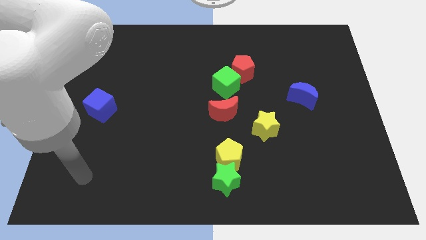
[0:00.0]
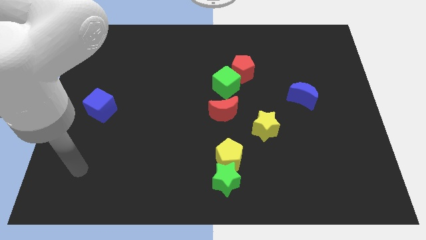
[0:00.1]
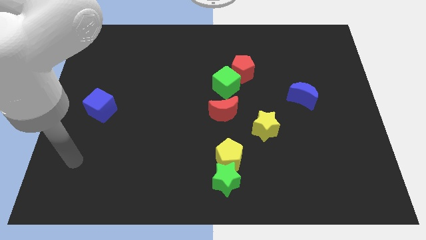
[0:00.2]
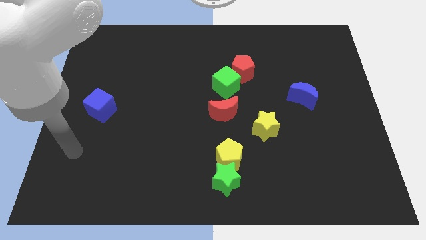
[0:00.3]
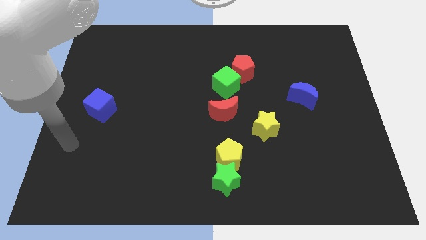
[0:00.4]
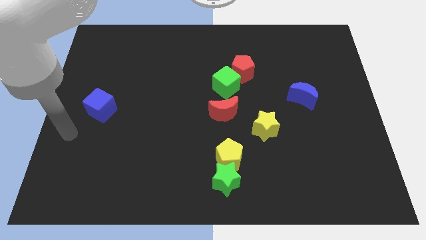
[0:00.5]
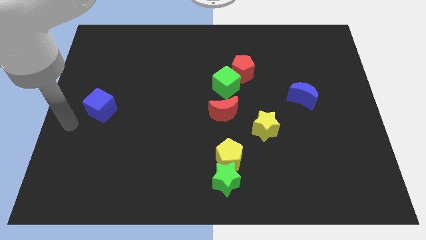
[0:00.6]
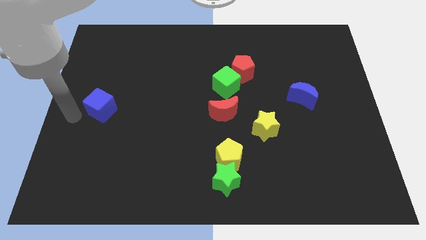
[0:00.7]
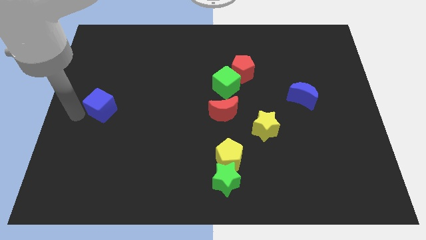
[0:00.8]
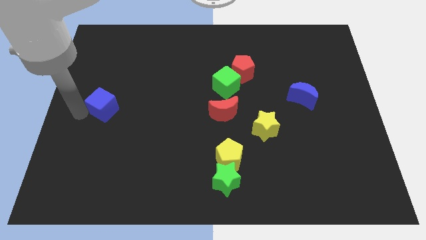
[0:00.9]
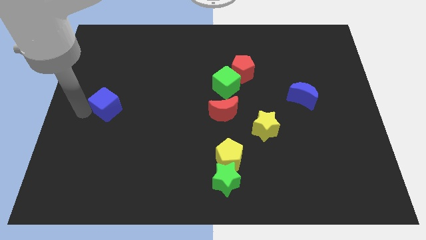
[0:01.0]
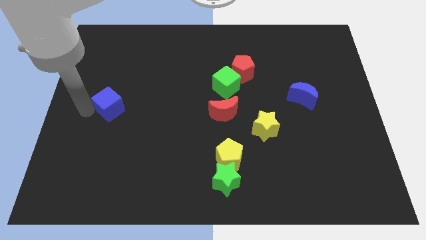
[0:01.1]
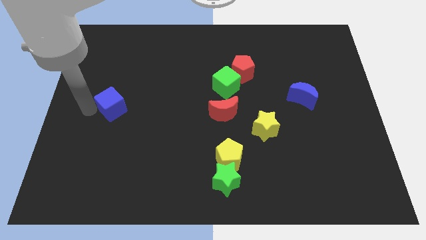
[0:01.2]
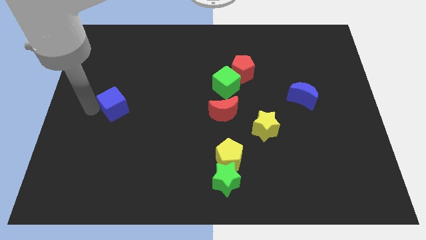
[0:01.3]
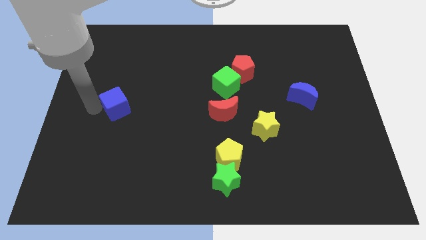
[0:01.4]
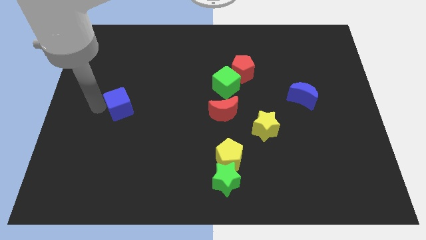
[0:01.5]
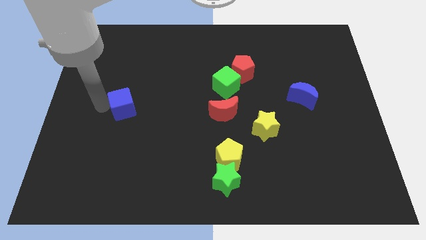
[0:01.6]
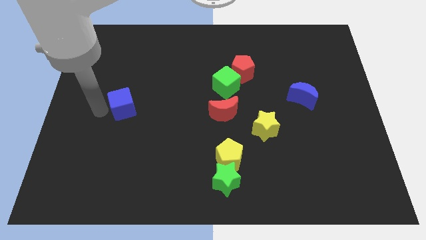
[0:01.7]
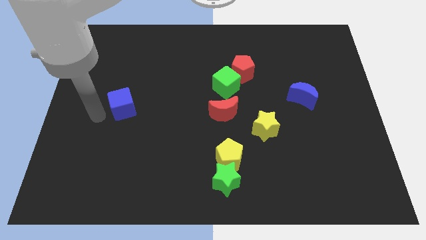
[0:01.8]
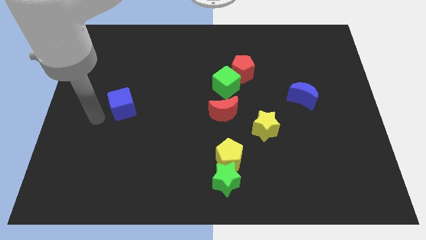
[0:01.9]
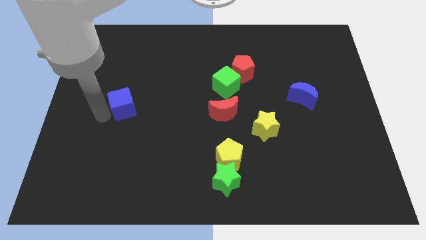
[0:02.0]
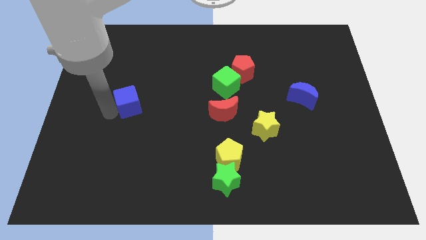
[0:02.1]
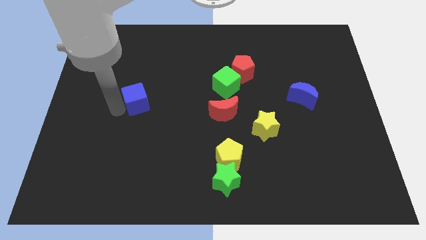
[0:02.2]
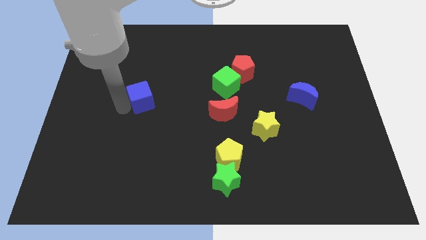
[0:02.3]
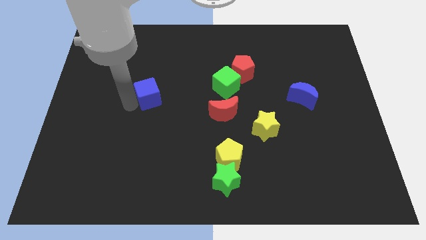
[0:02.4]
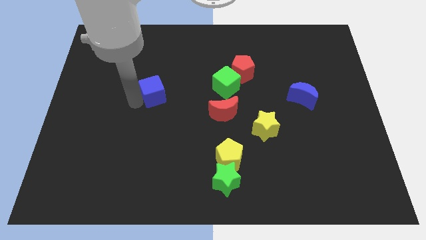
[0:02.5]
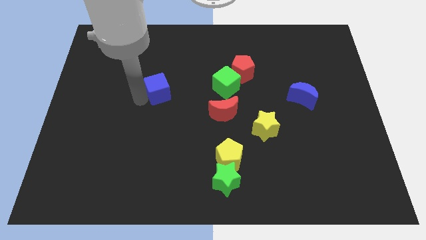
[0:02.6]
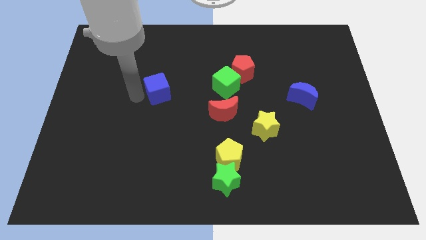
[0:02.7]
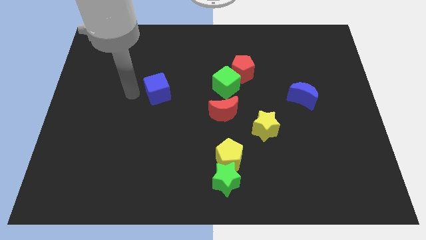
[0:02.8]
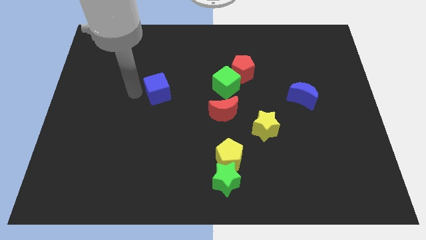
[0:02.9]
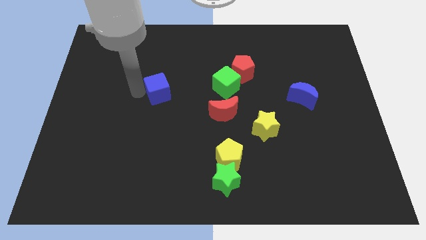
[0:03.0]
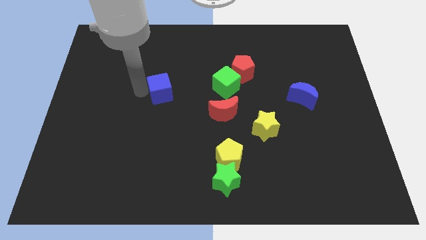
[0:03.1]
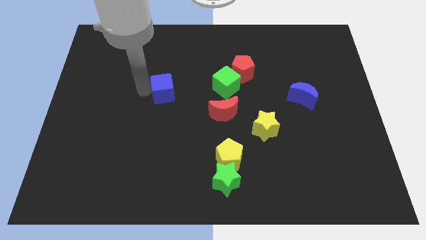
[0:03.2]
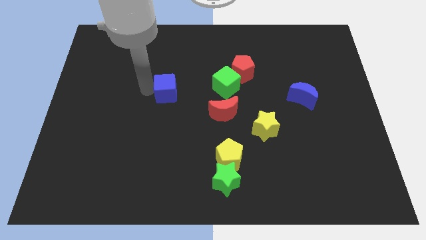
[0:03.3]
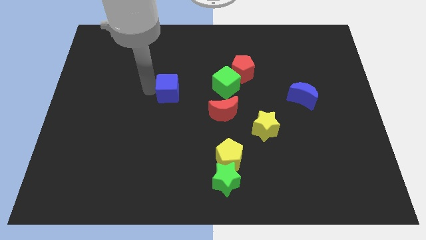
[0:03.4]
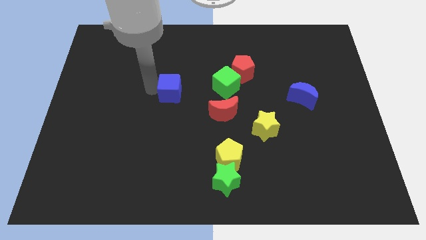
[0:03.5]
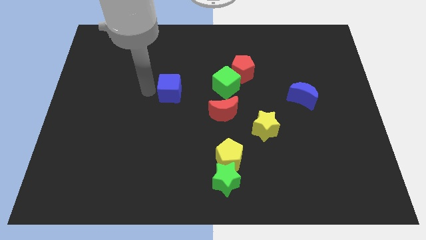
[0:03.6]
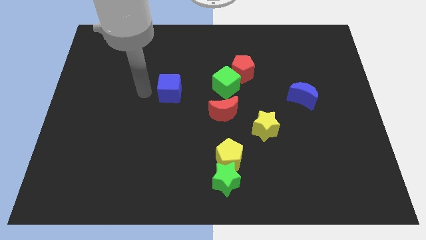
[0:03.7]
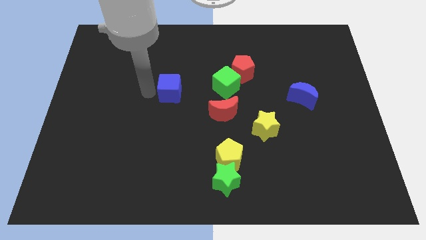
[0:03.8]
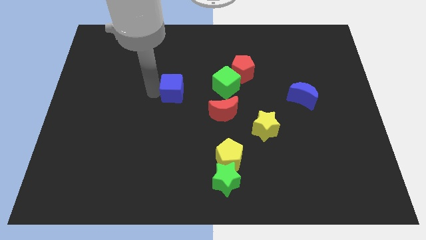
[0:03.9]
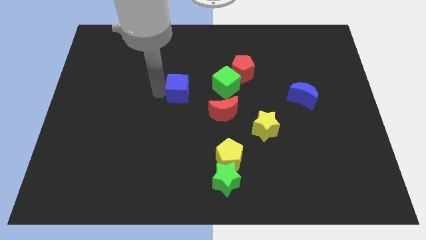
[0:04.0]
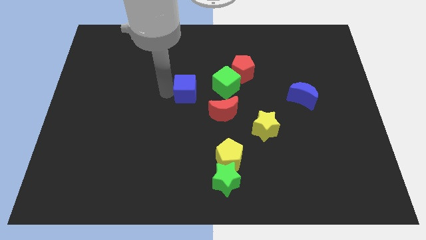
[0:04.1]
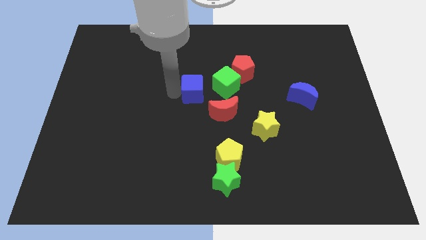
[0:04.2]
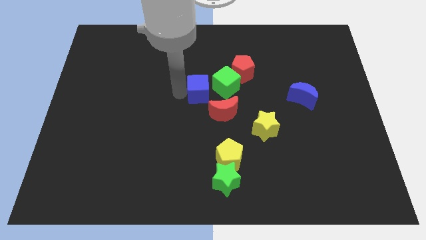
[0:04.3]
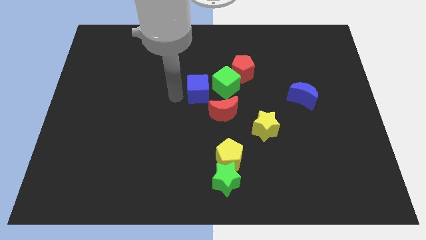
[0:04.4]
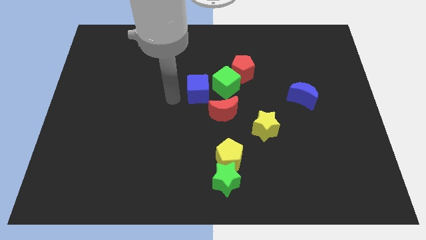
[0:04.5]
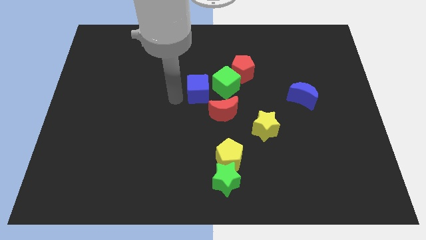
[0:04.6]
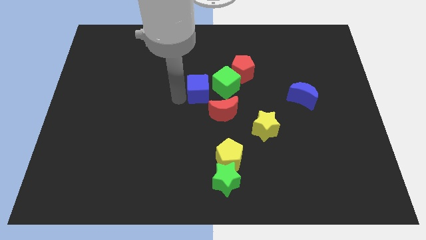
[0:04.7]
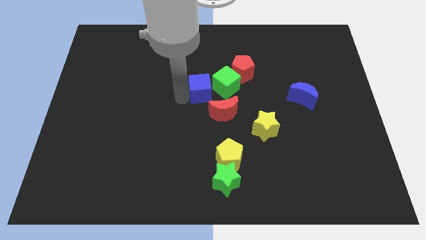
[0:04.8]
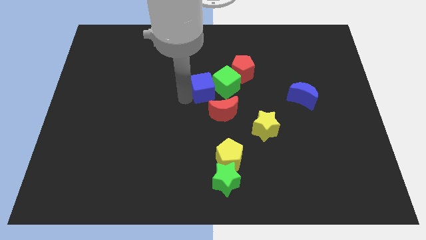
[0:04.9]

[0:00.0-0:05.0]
push the blue cube to the green cube

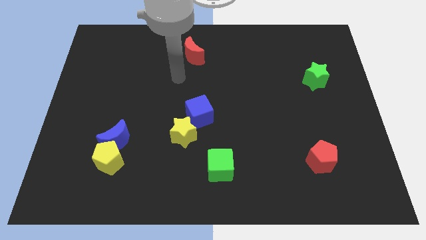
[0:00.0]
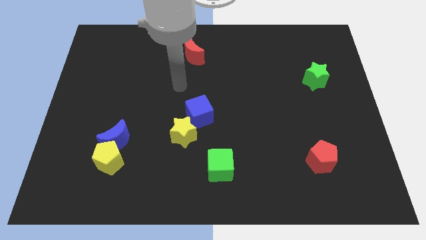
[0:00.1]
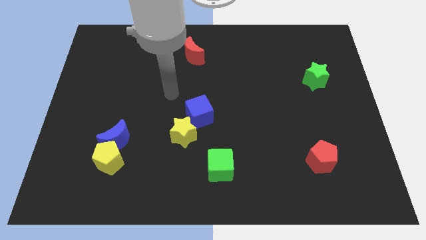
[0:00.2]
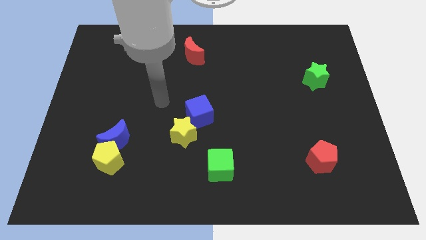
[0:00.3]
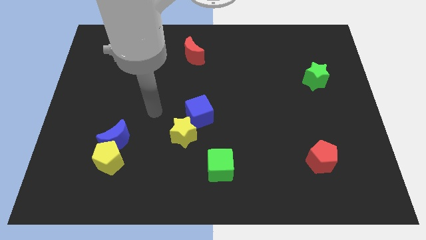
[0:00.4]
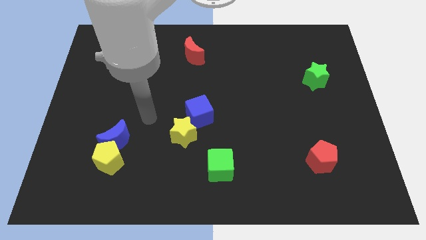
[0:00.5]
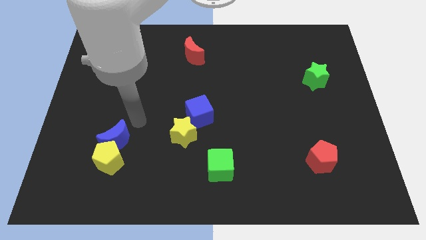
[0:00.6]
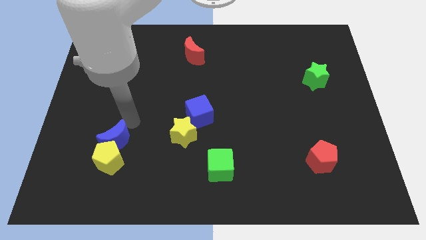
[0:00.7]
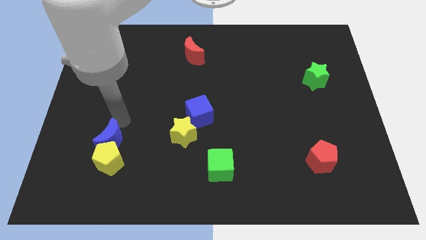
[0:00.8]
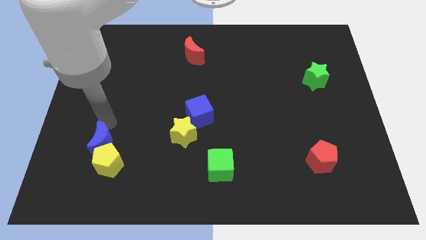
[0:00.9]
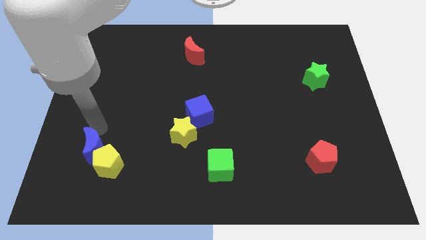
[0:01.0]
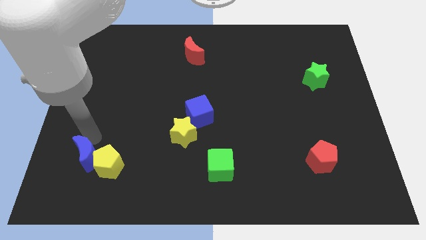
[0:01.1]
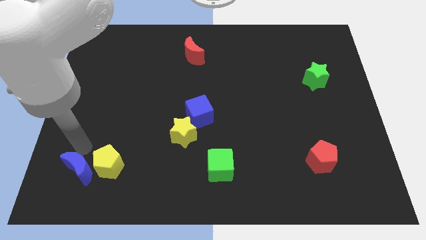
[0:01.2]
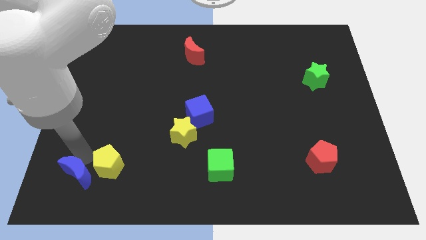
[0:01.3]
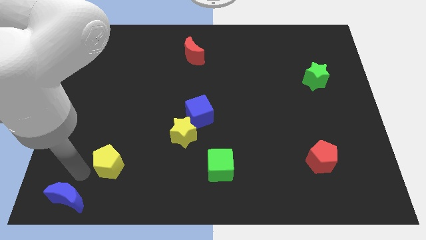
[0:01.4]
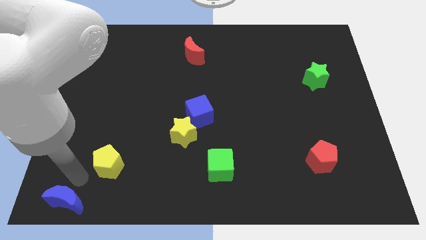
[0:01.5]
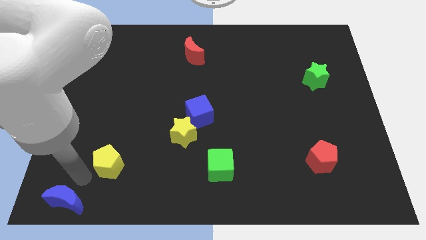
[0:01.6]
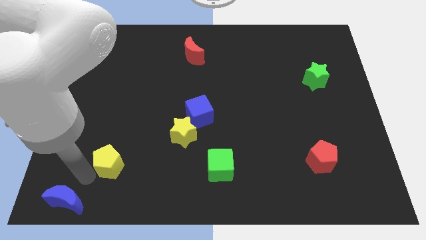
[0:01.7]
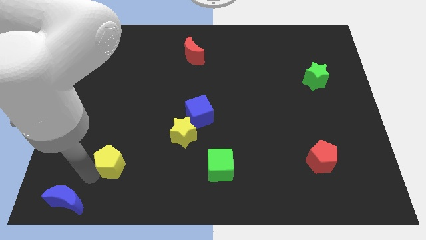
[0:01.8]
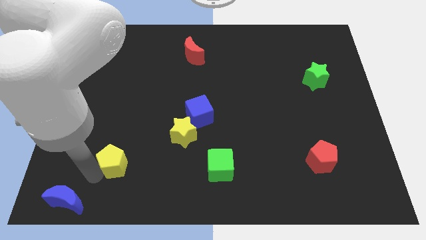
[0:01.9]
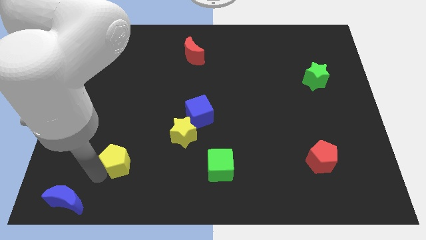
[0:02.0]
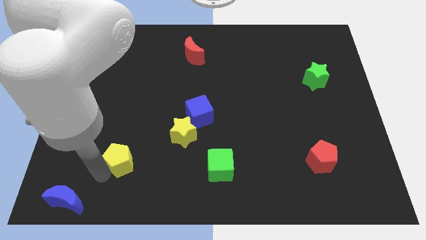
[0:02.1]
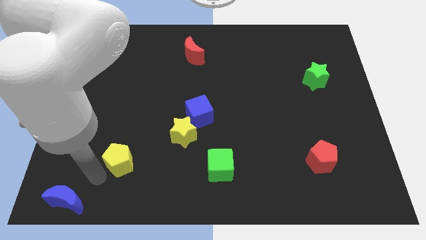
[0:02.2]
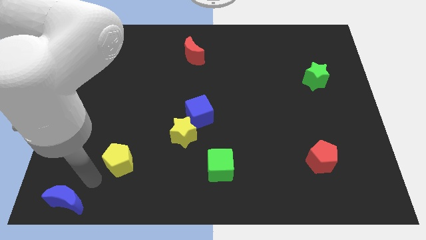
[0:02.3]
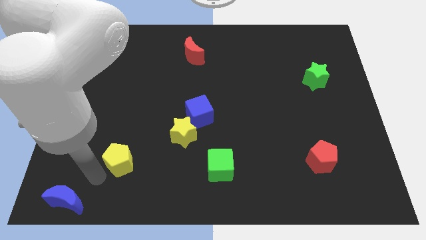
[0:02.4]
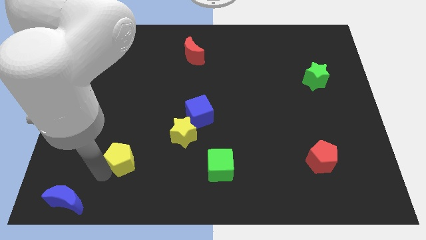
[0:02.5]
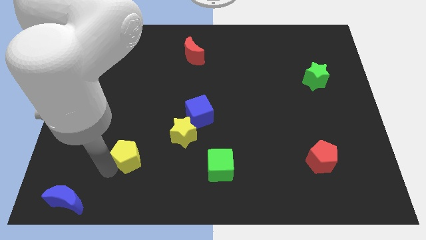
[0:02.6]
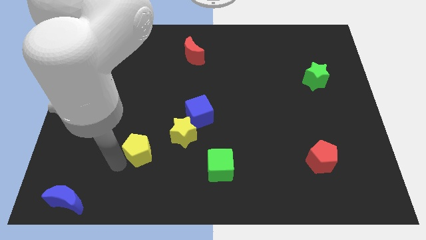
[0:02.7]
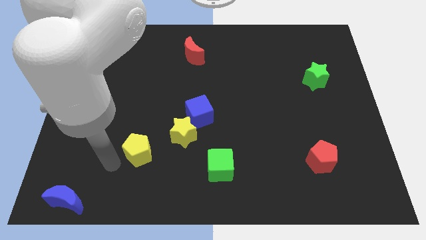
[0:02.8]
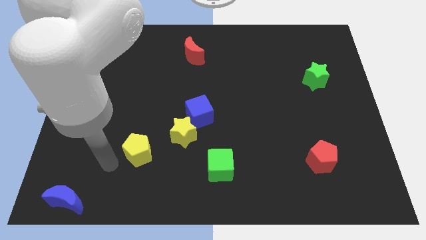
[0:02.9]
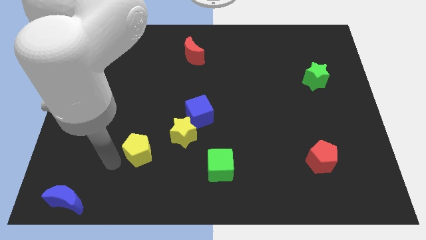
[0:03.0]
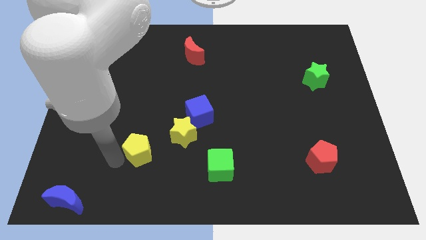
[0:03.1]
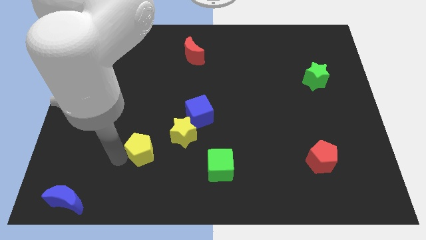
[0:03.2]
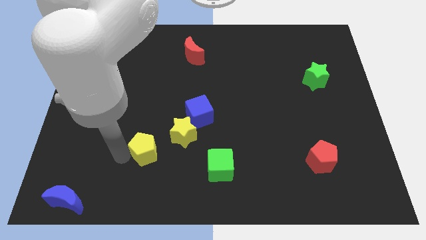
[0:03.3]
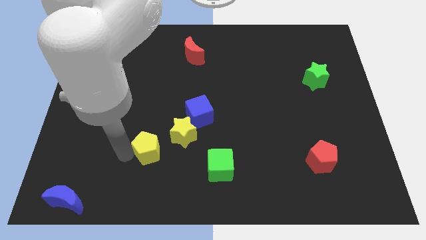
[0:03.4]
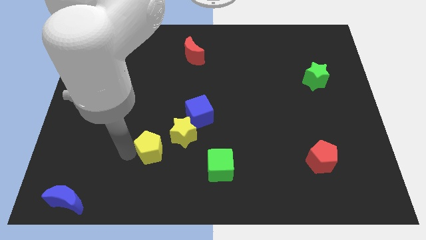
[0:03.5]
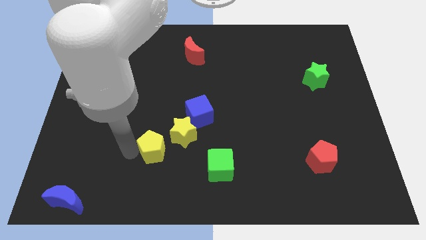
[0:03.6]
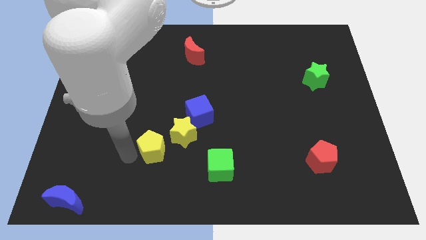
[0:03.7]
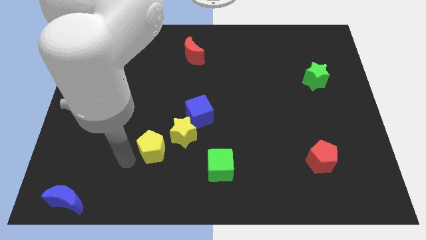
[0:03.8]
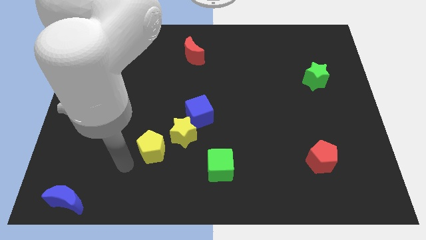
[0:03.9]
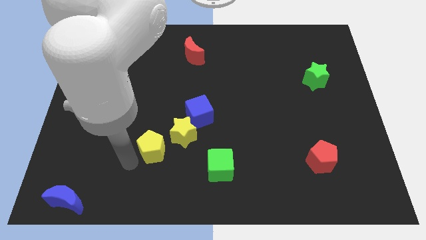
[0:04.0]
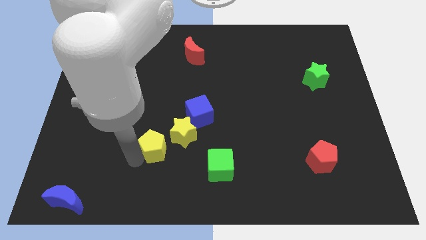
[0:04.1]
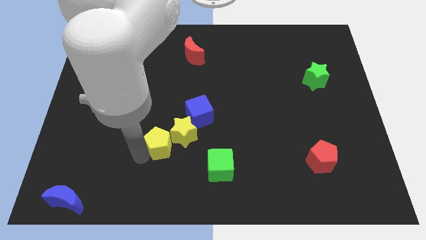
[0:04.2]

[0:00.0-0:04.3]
move the yellow pentagon next to the yellow star
